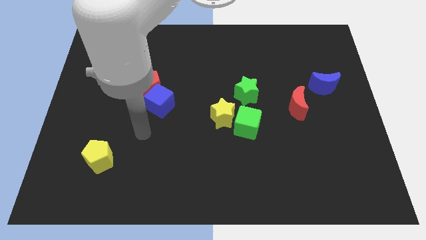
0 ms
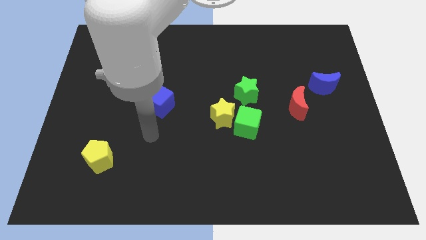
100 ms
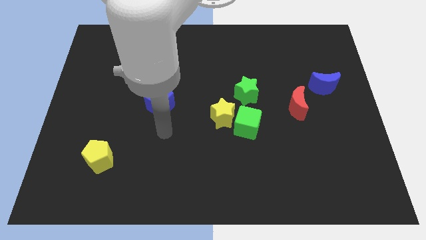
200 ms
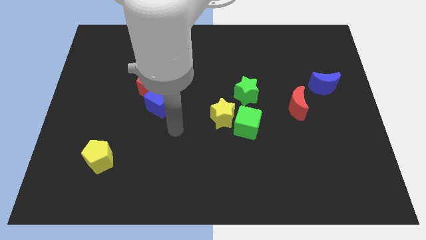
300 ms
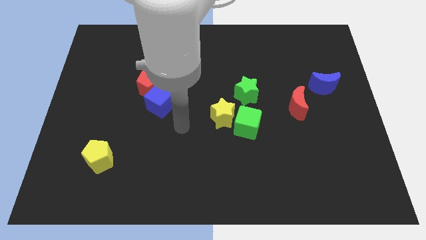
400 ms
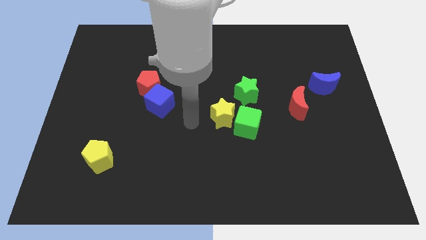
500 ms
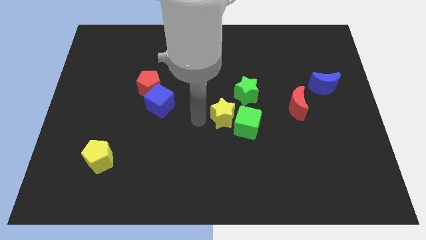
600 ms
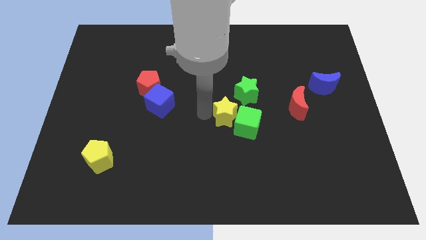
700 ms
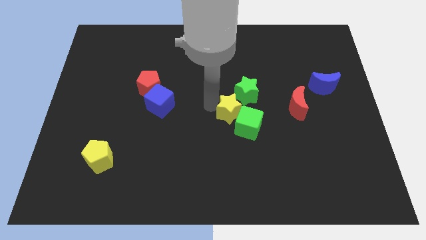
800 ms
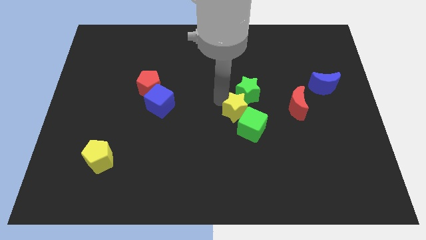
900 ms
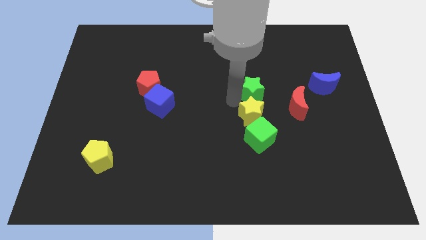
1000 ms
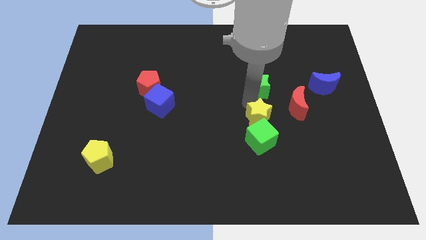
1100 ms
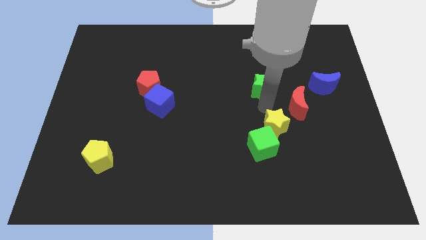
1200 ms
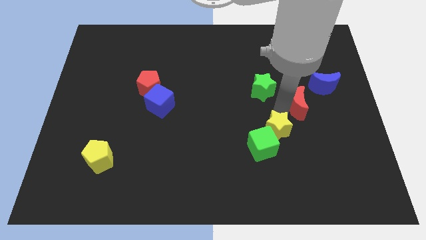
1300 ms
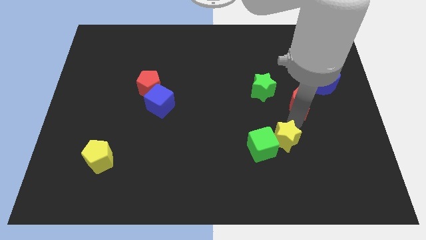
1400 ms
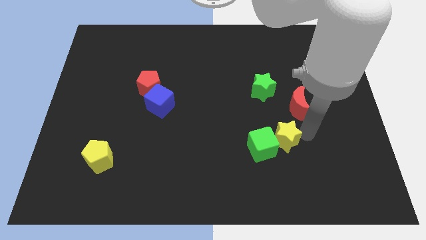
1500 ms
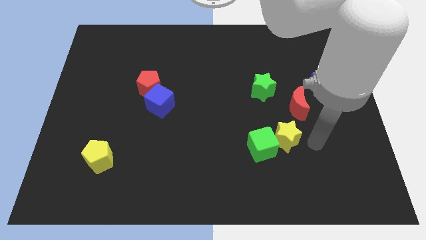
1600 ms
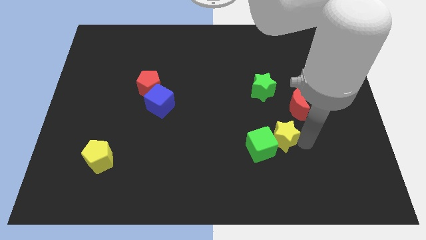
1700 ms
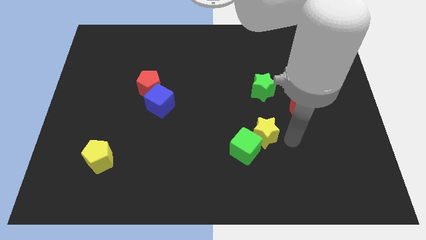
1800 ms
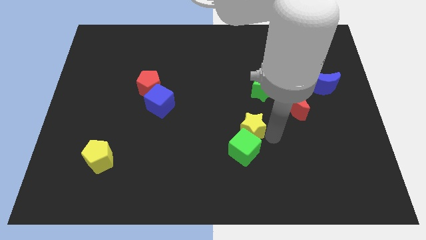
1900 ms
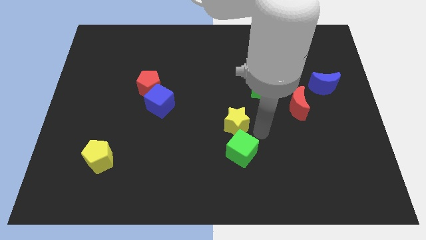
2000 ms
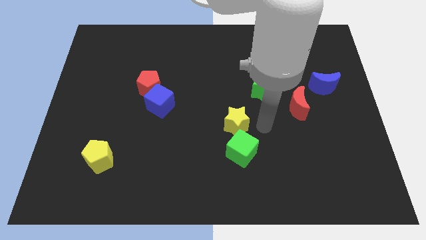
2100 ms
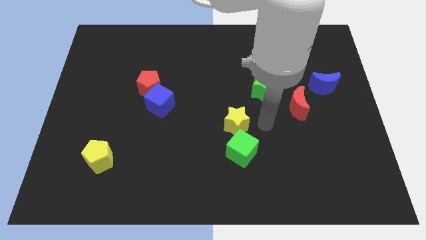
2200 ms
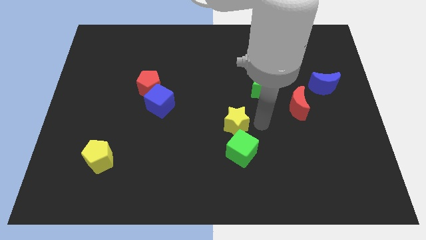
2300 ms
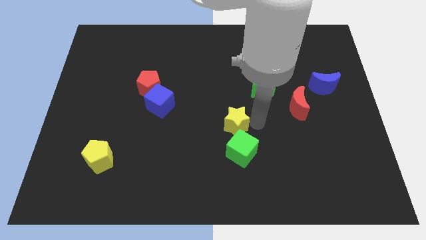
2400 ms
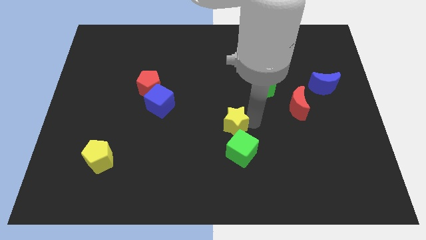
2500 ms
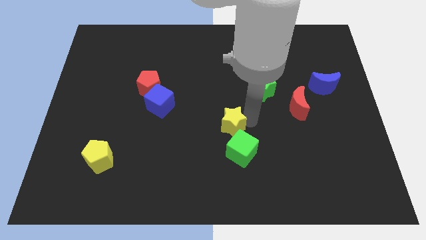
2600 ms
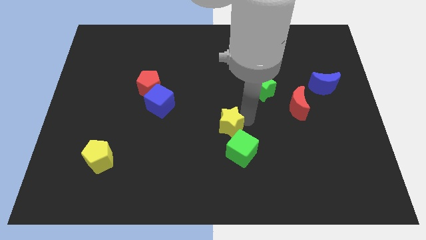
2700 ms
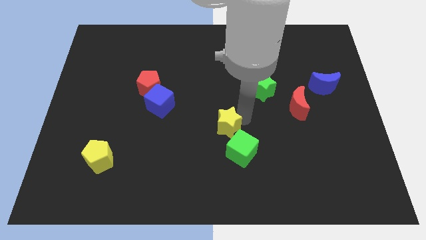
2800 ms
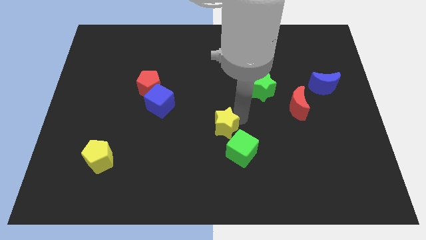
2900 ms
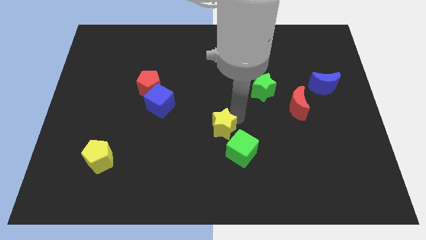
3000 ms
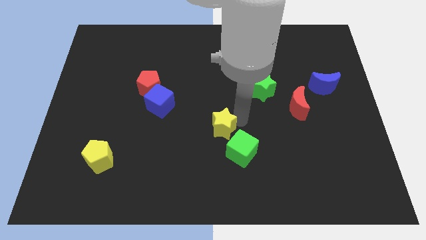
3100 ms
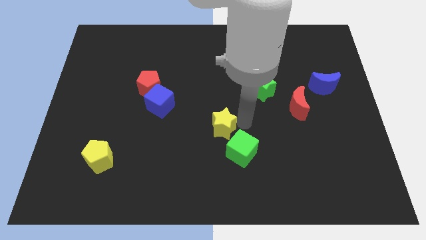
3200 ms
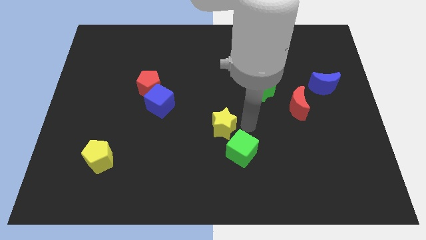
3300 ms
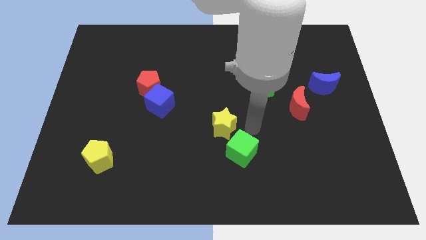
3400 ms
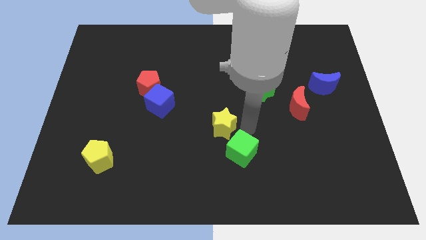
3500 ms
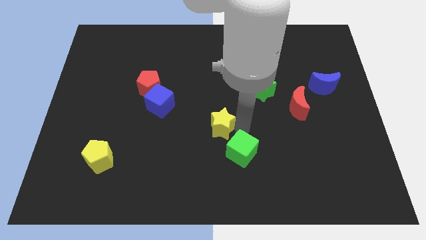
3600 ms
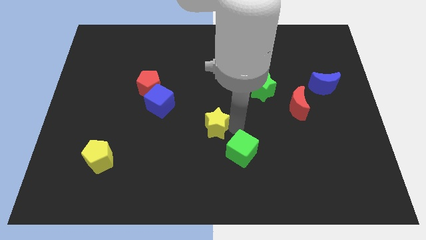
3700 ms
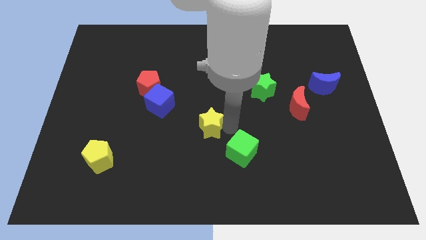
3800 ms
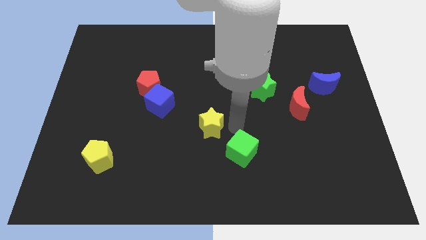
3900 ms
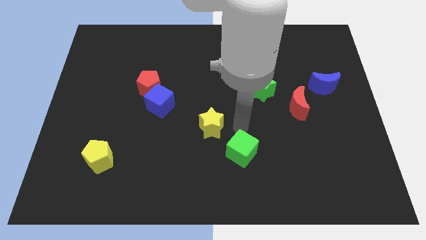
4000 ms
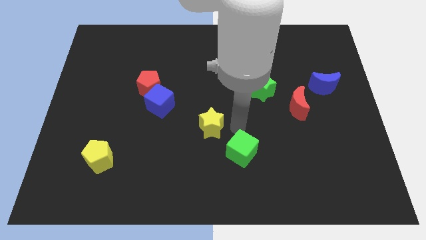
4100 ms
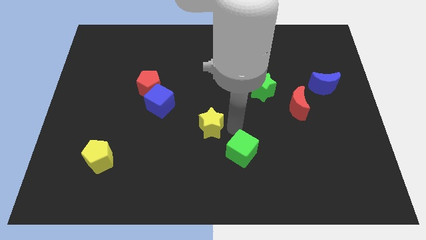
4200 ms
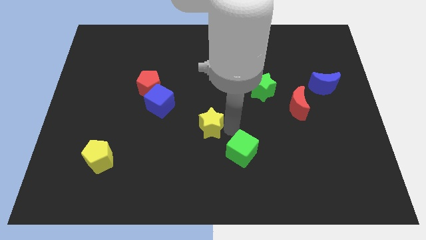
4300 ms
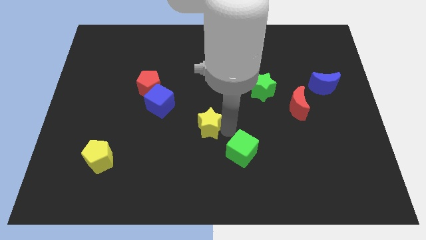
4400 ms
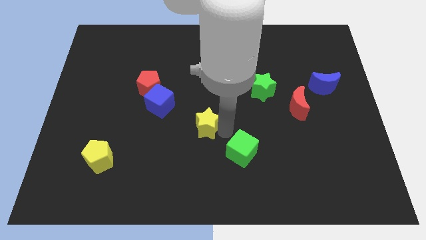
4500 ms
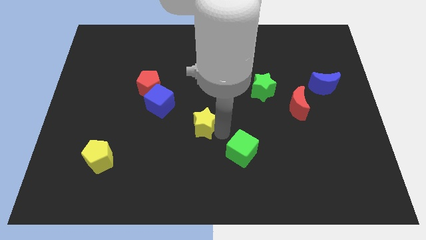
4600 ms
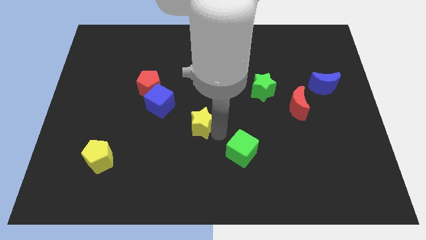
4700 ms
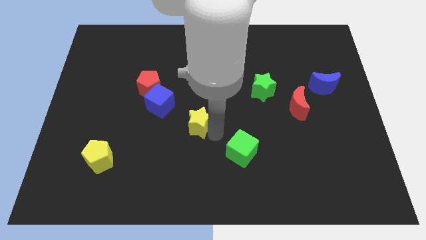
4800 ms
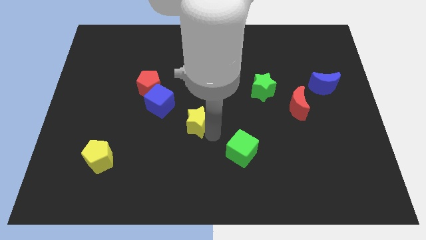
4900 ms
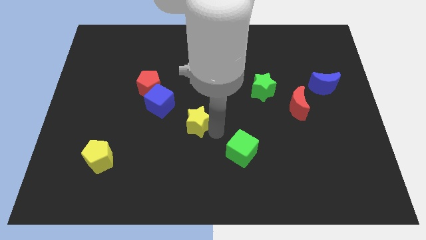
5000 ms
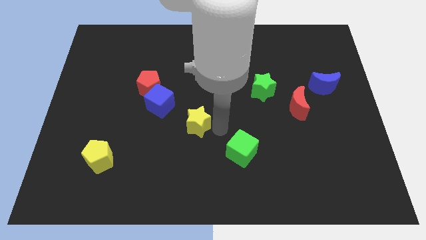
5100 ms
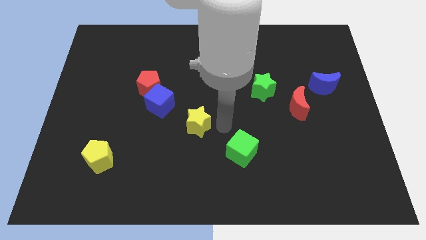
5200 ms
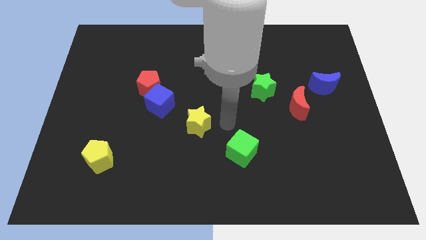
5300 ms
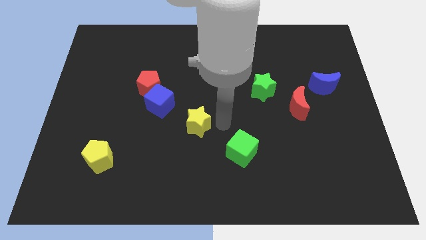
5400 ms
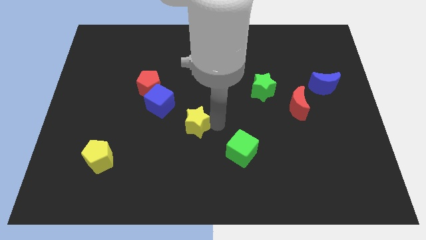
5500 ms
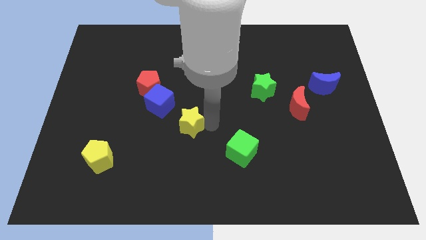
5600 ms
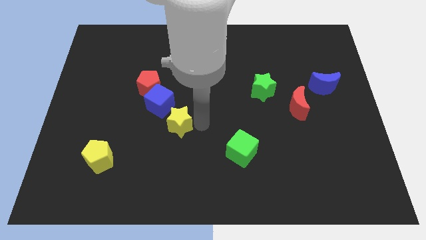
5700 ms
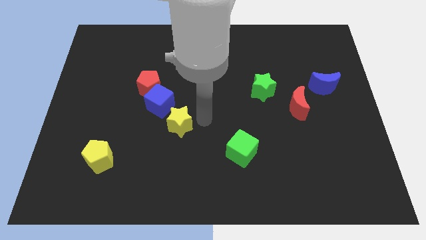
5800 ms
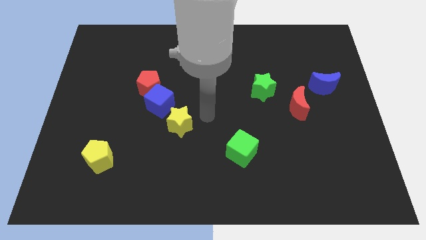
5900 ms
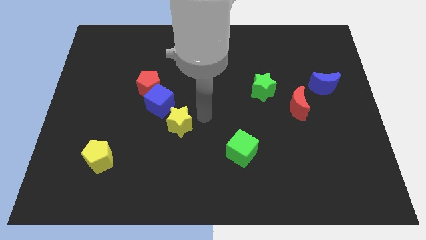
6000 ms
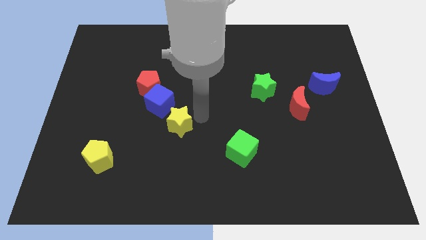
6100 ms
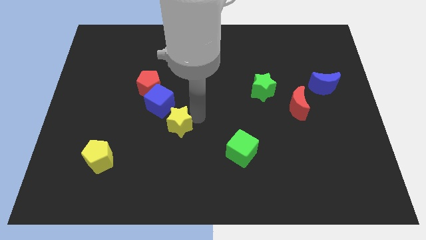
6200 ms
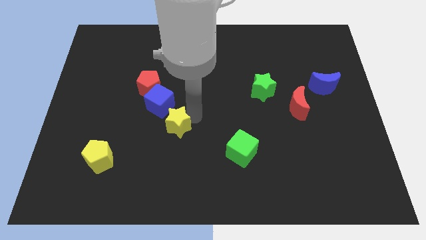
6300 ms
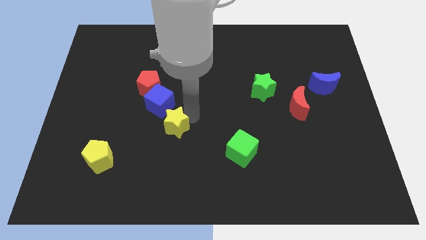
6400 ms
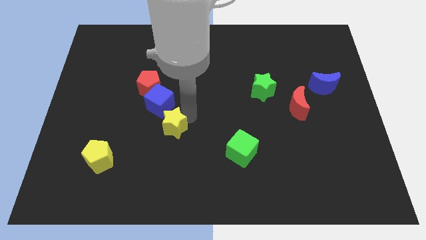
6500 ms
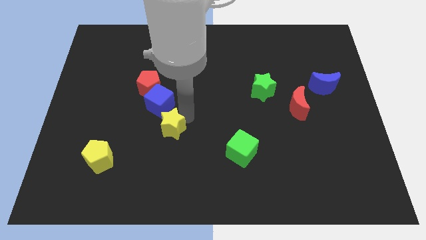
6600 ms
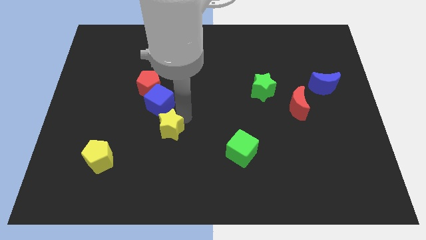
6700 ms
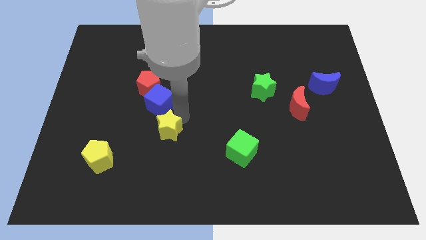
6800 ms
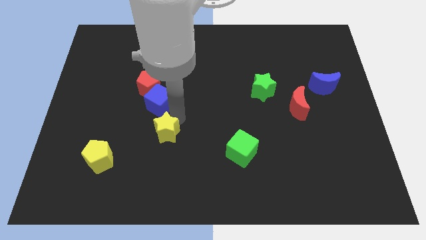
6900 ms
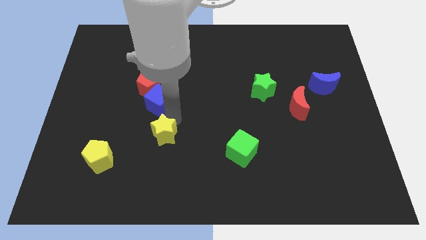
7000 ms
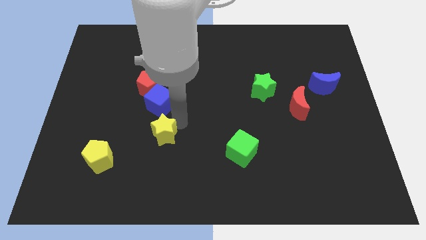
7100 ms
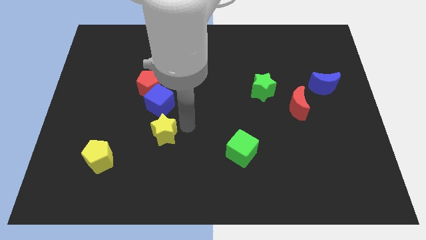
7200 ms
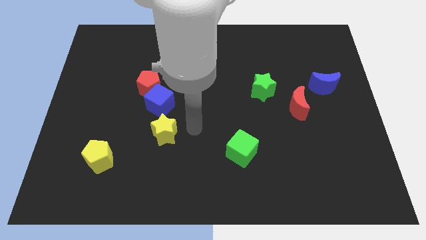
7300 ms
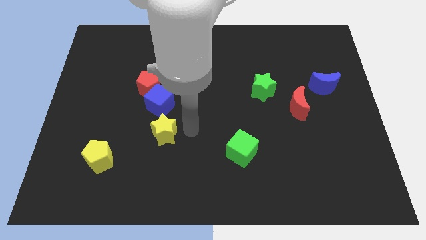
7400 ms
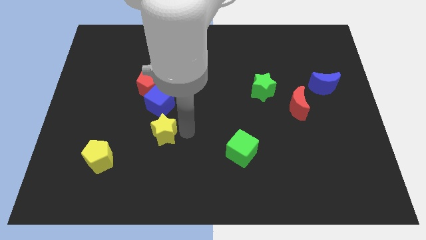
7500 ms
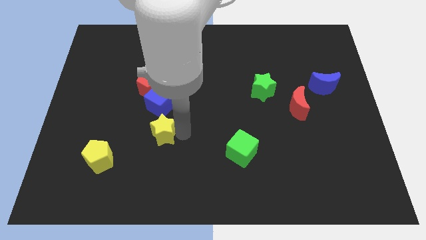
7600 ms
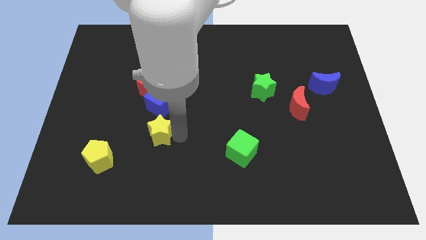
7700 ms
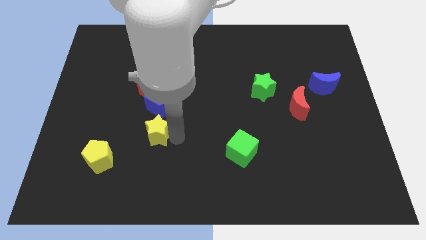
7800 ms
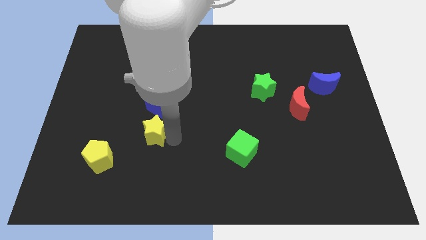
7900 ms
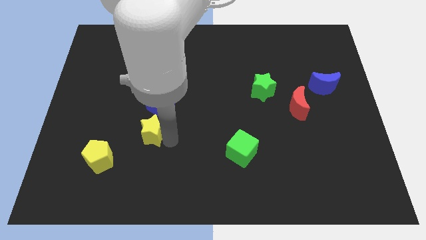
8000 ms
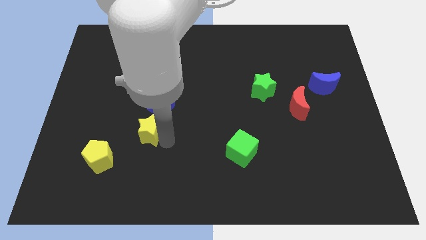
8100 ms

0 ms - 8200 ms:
push the yellow star to the top right side of the yellow pentagon
